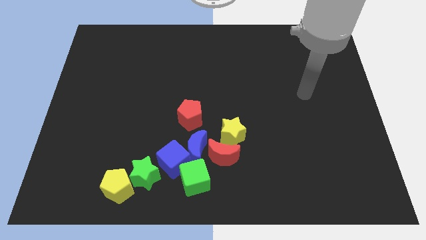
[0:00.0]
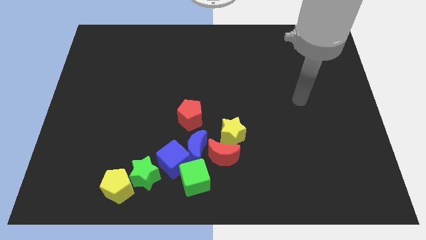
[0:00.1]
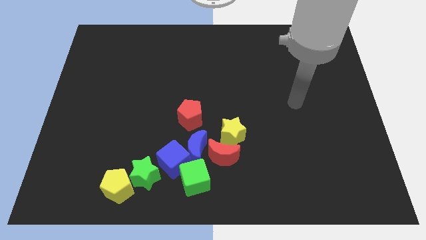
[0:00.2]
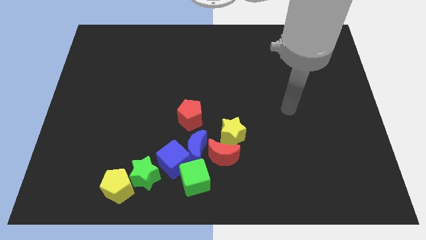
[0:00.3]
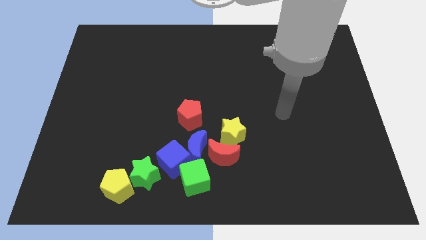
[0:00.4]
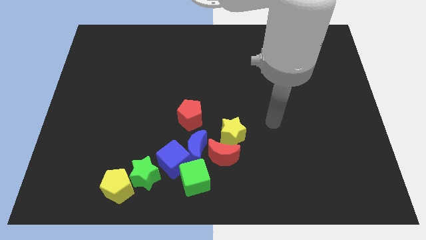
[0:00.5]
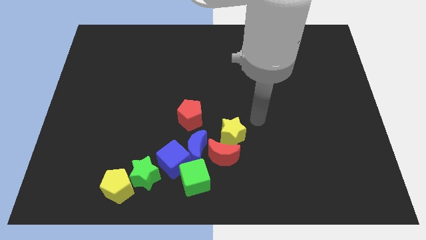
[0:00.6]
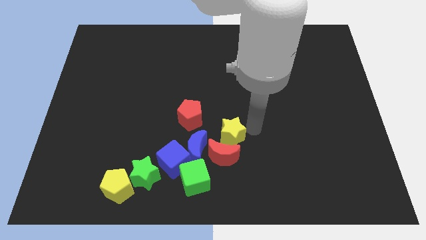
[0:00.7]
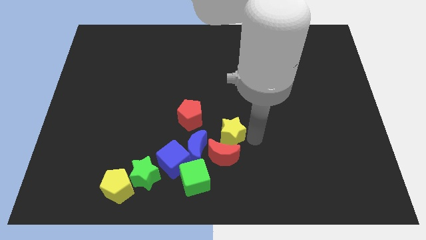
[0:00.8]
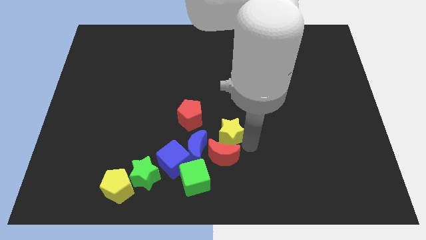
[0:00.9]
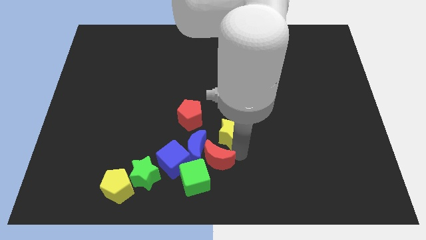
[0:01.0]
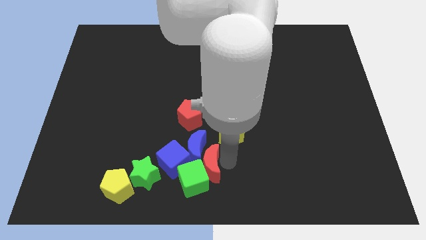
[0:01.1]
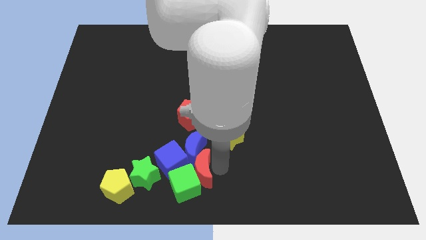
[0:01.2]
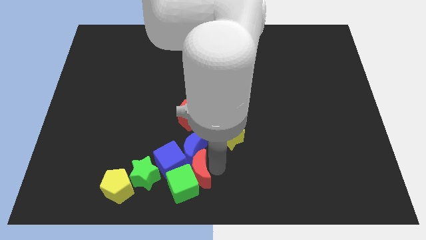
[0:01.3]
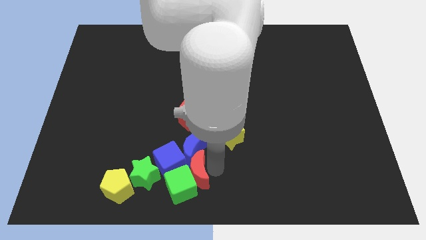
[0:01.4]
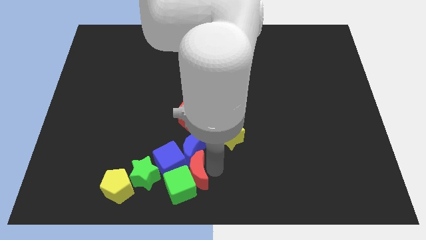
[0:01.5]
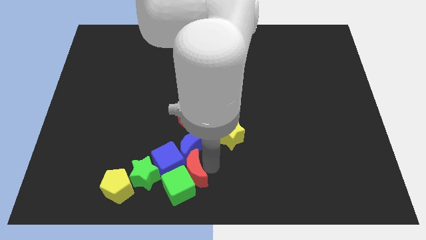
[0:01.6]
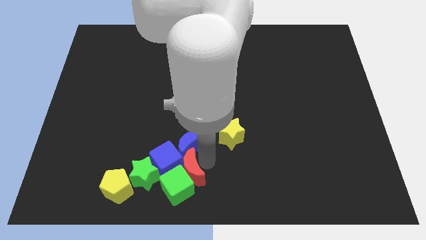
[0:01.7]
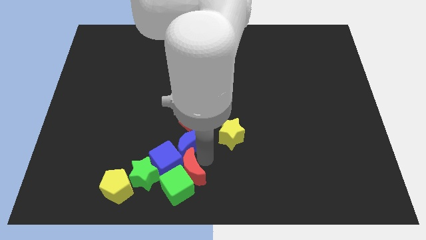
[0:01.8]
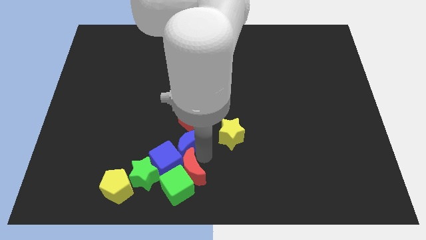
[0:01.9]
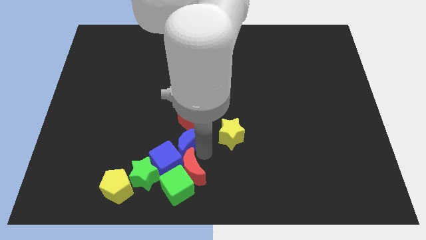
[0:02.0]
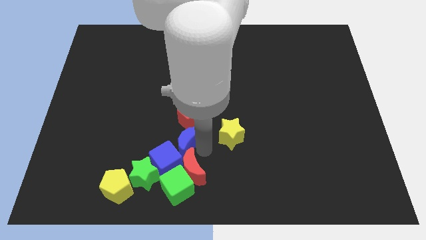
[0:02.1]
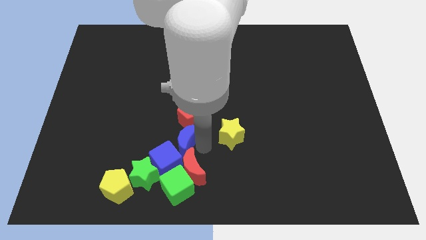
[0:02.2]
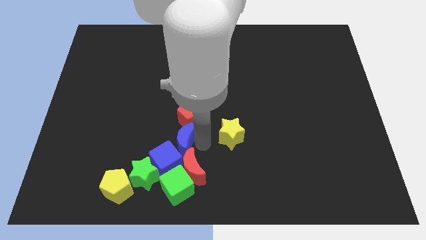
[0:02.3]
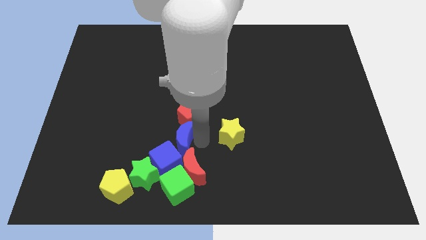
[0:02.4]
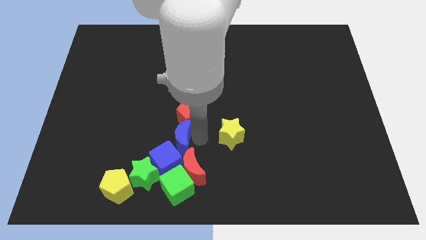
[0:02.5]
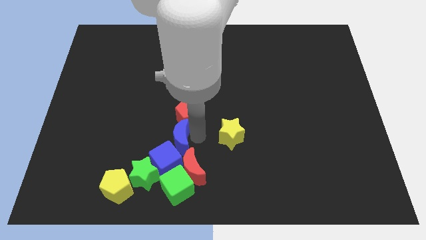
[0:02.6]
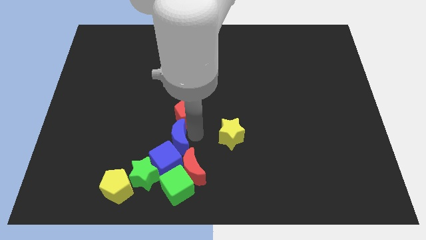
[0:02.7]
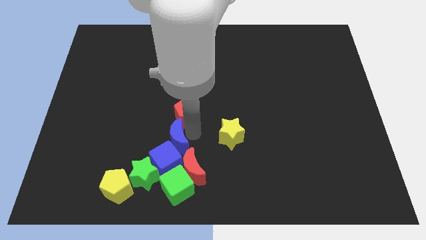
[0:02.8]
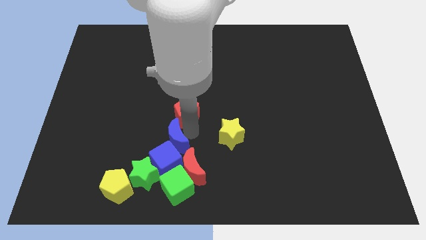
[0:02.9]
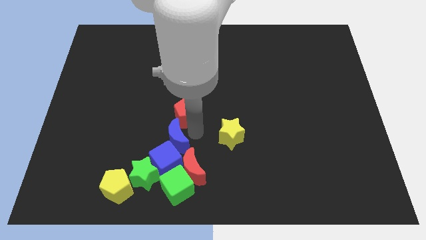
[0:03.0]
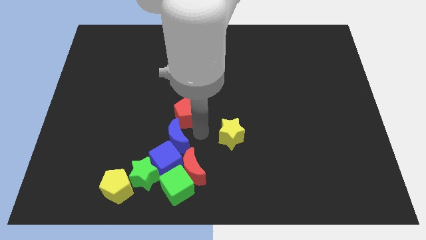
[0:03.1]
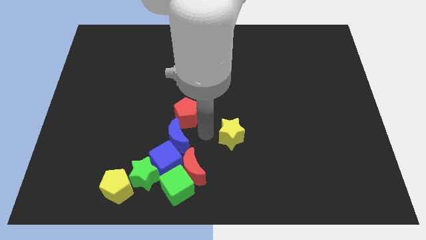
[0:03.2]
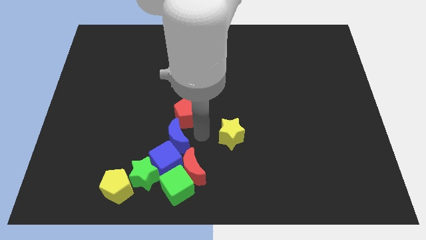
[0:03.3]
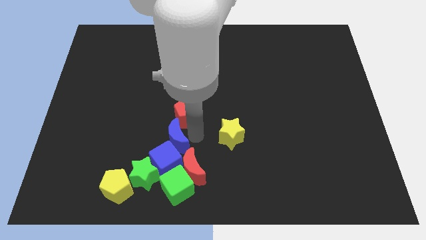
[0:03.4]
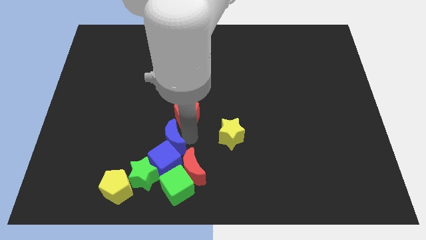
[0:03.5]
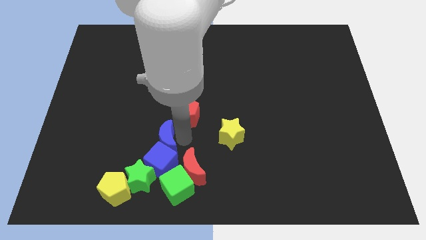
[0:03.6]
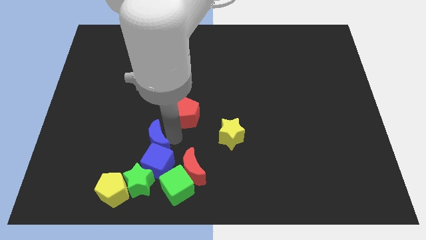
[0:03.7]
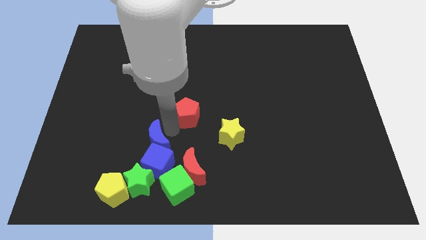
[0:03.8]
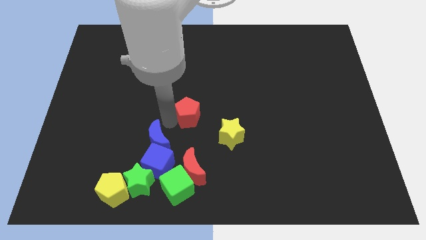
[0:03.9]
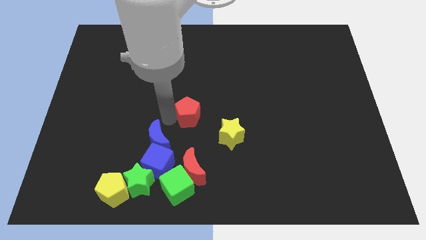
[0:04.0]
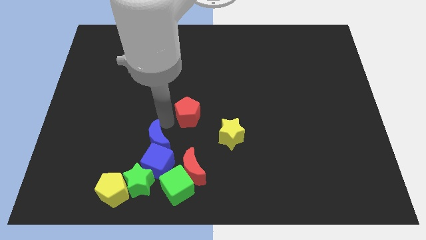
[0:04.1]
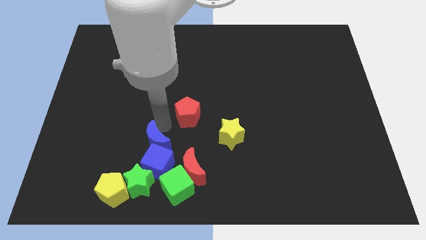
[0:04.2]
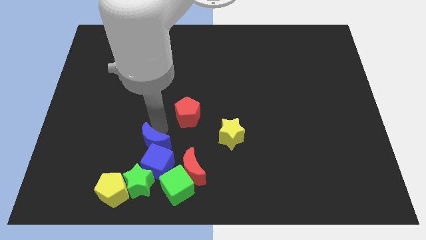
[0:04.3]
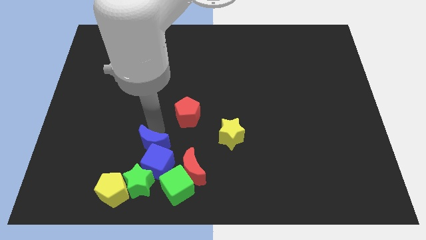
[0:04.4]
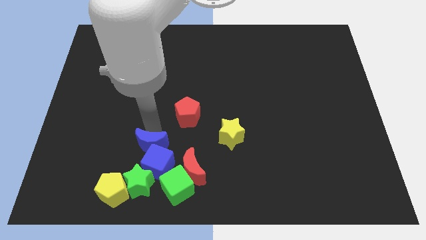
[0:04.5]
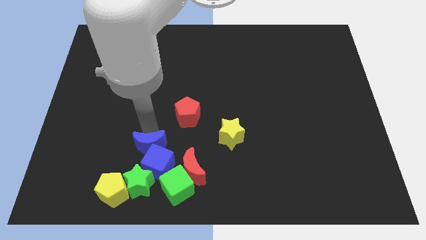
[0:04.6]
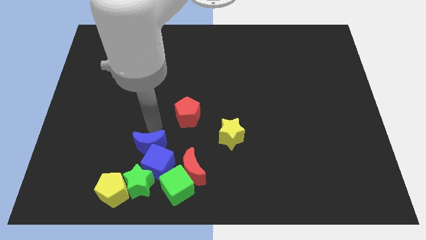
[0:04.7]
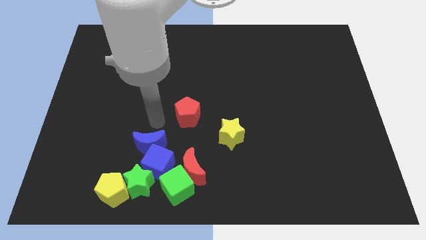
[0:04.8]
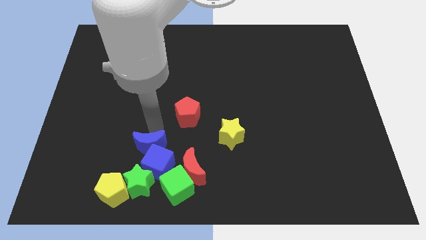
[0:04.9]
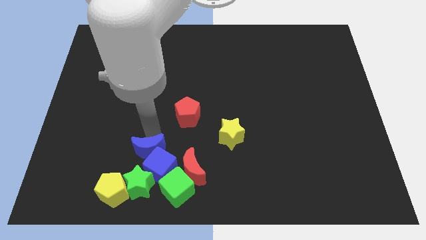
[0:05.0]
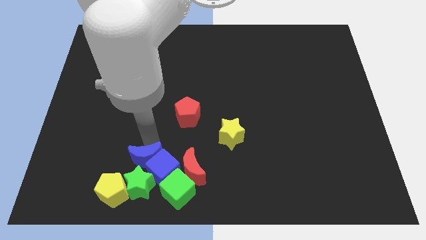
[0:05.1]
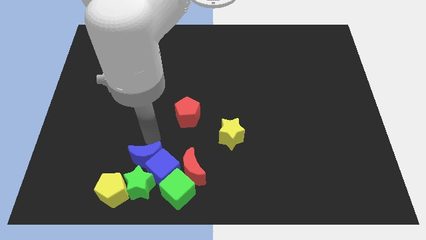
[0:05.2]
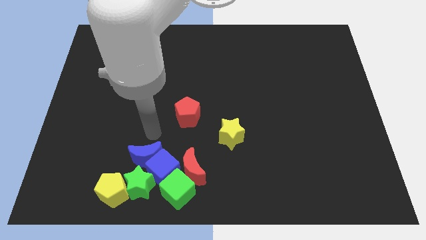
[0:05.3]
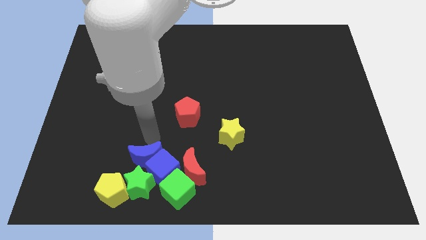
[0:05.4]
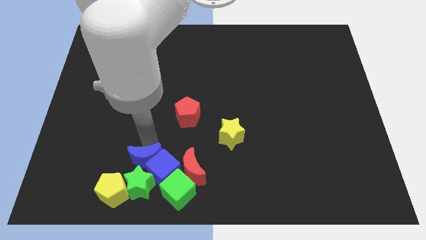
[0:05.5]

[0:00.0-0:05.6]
move the blue moon towards the green star

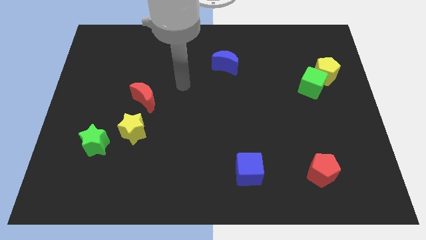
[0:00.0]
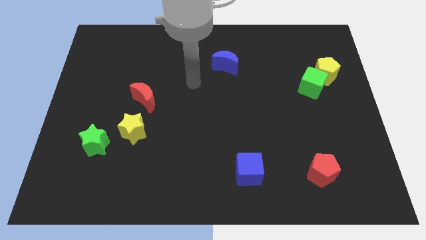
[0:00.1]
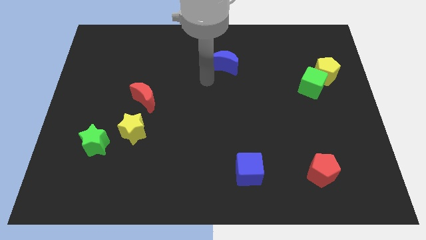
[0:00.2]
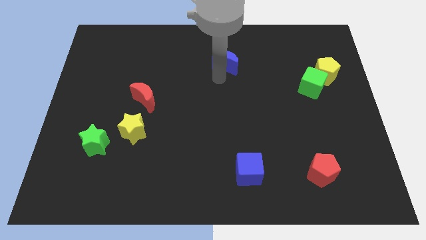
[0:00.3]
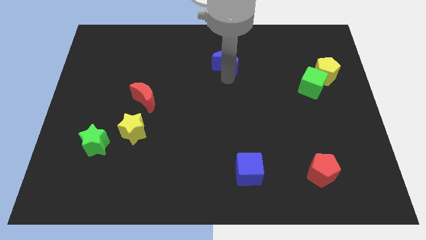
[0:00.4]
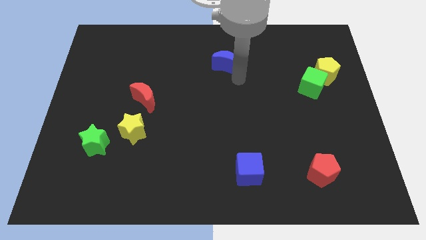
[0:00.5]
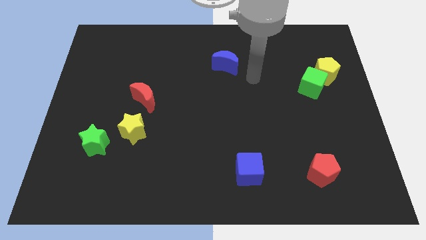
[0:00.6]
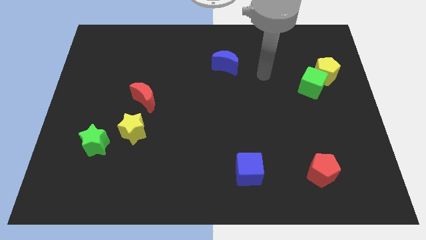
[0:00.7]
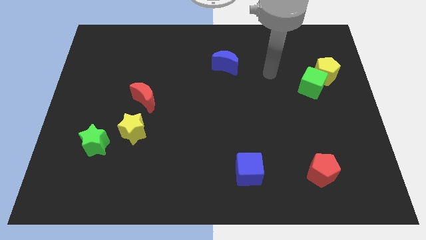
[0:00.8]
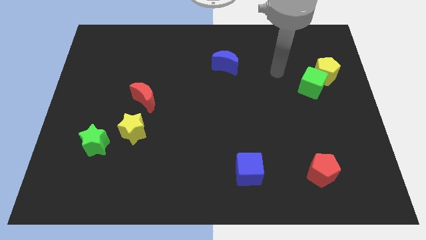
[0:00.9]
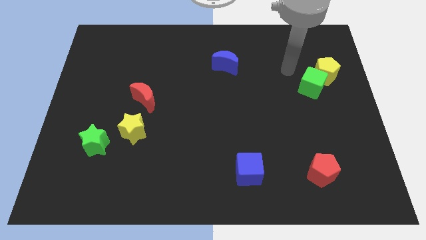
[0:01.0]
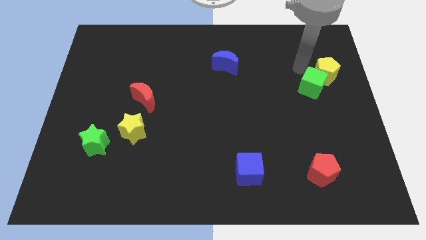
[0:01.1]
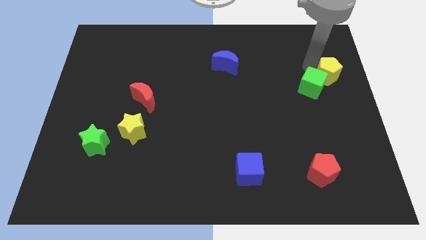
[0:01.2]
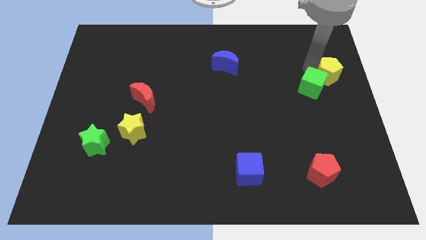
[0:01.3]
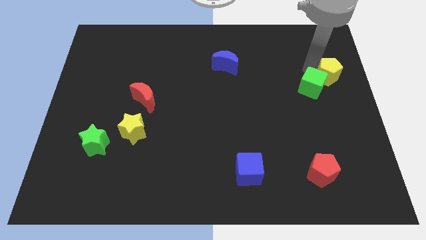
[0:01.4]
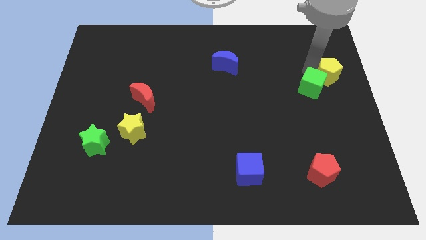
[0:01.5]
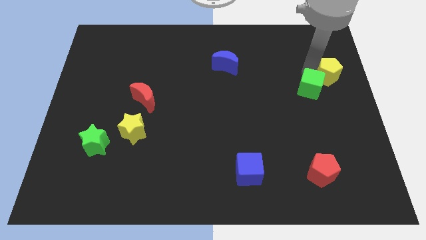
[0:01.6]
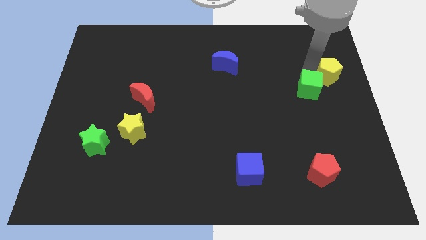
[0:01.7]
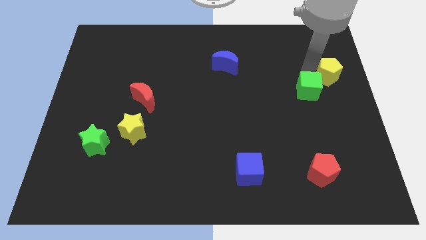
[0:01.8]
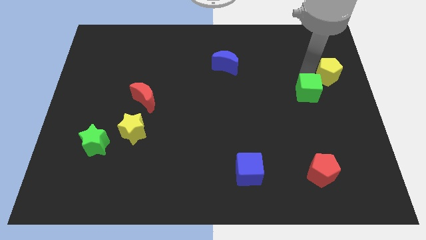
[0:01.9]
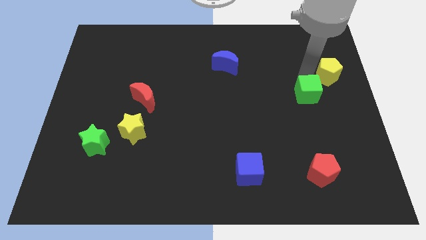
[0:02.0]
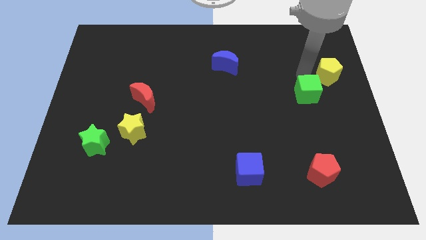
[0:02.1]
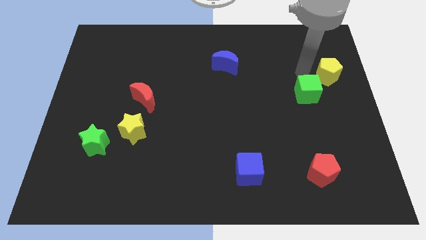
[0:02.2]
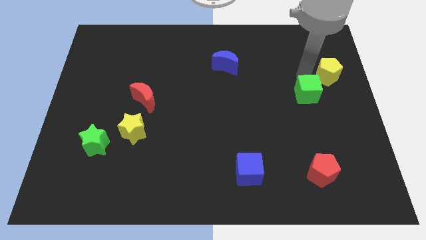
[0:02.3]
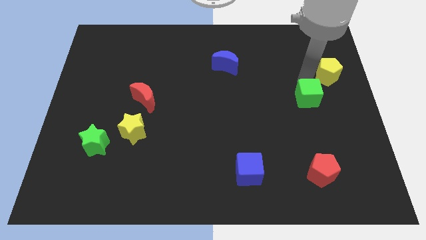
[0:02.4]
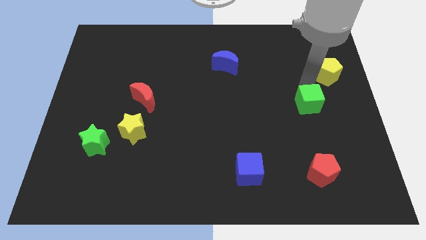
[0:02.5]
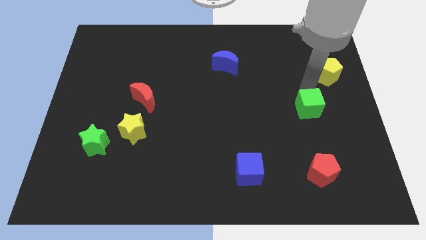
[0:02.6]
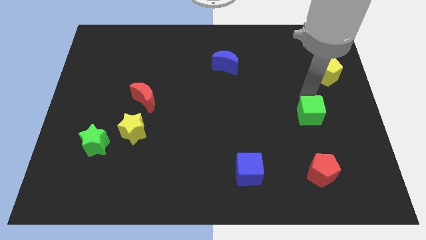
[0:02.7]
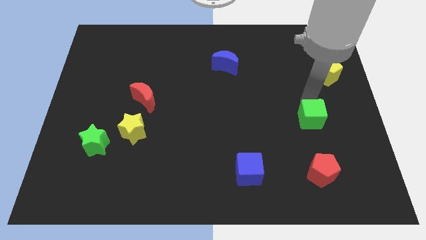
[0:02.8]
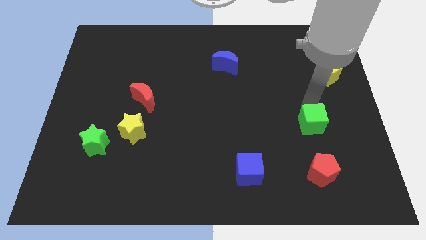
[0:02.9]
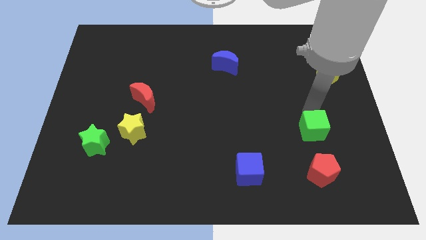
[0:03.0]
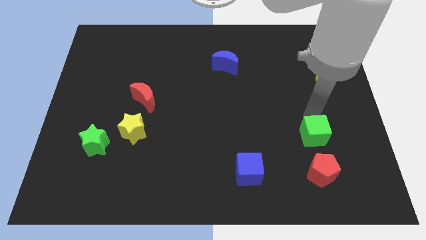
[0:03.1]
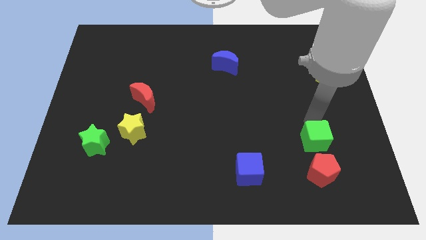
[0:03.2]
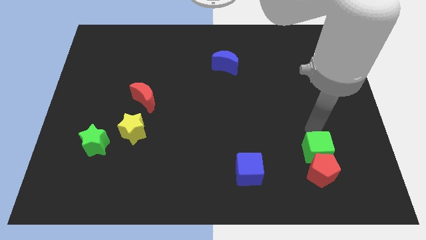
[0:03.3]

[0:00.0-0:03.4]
put the green cube towards the red pentagon
